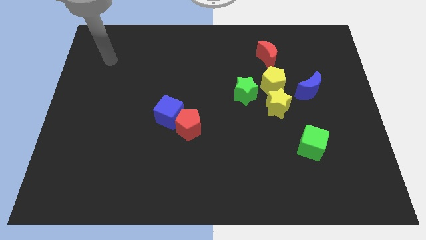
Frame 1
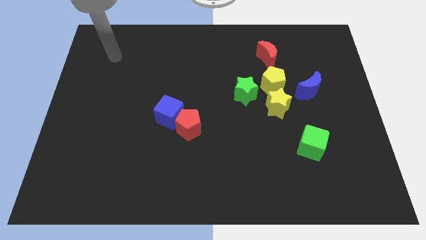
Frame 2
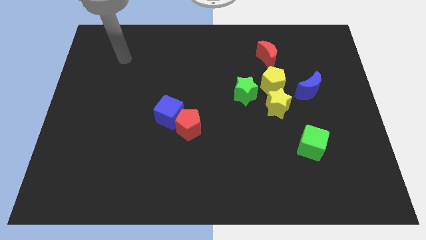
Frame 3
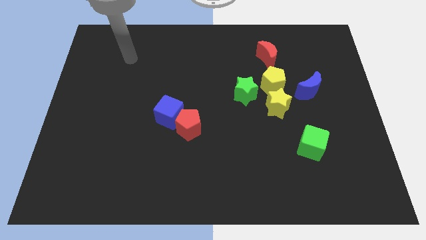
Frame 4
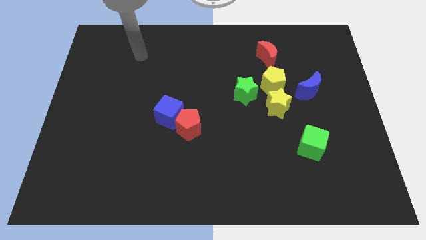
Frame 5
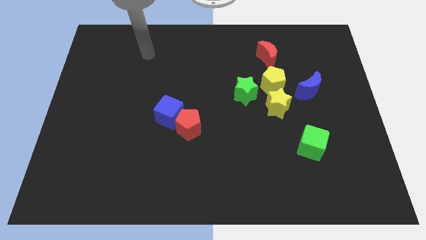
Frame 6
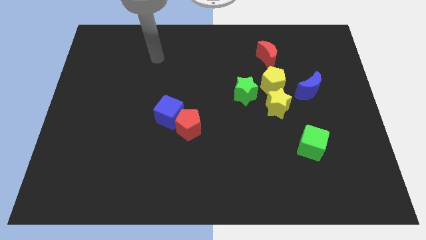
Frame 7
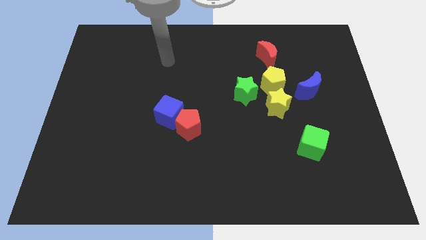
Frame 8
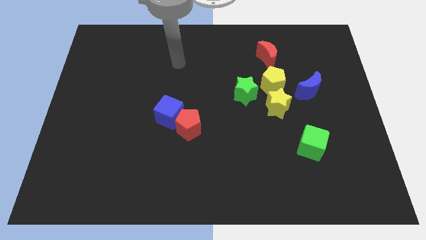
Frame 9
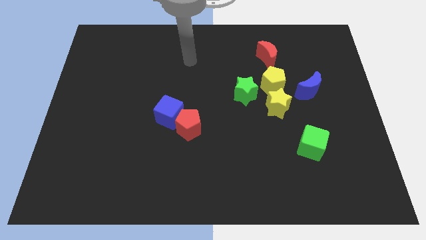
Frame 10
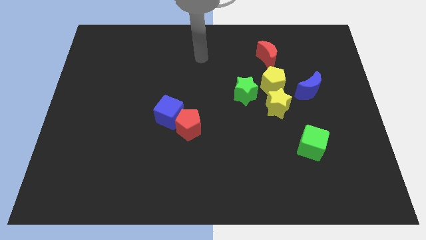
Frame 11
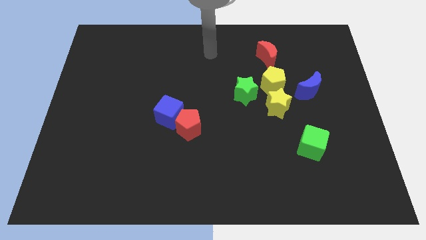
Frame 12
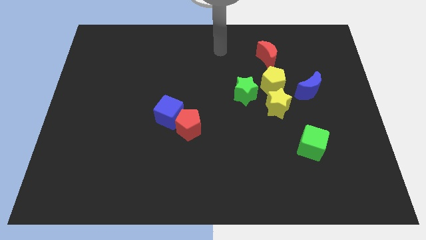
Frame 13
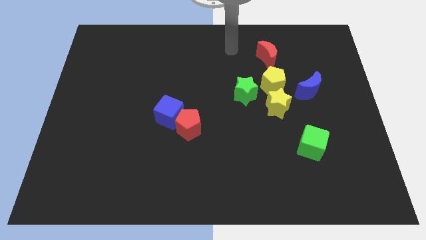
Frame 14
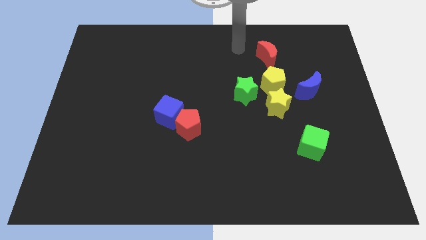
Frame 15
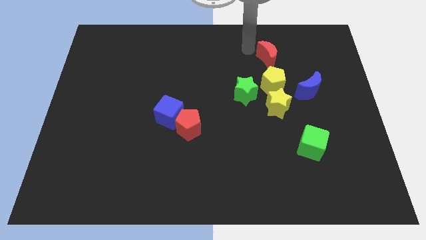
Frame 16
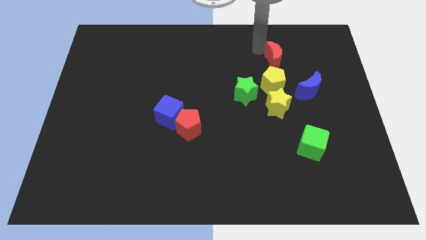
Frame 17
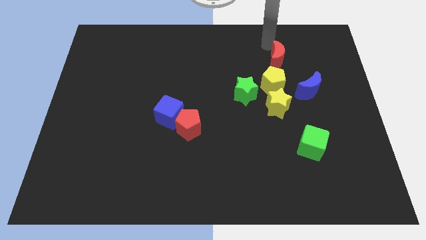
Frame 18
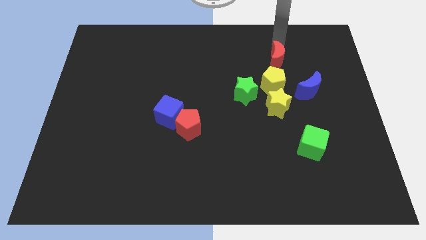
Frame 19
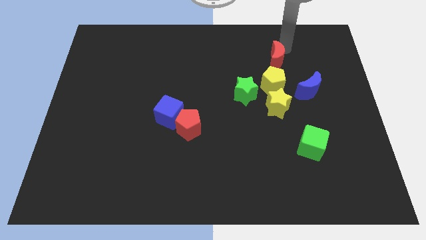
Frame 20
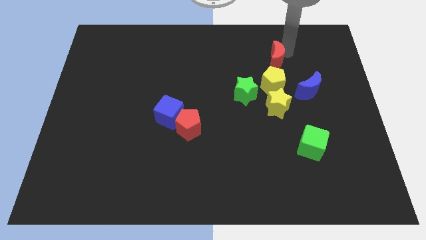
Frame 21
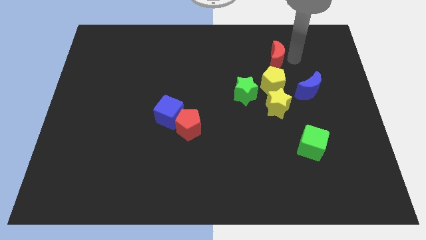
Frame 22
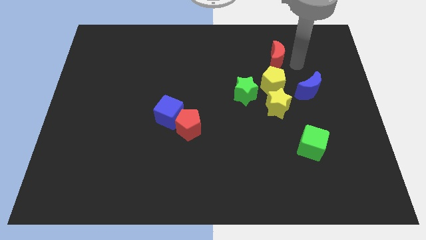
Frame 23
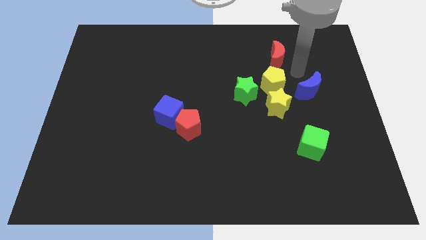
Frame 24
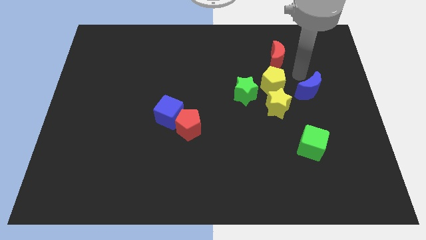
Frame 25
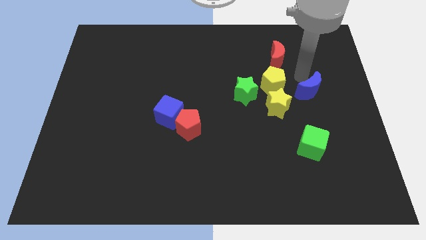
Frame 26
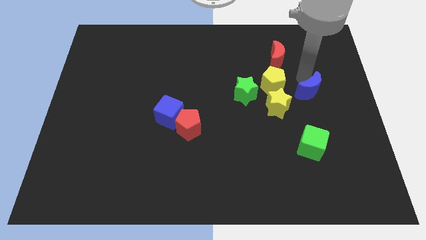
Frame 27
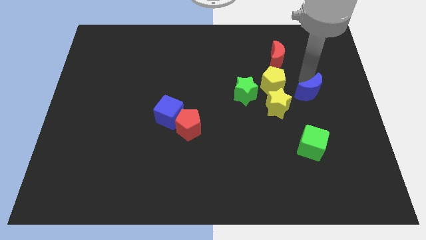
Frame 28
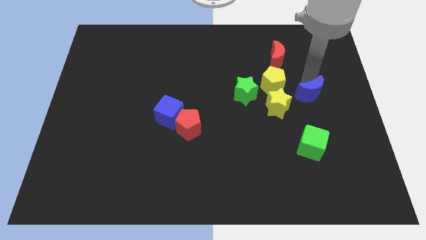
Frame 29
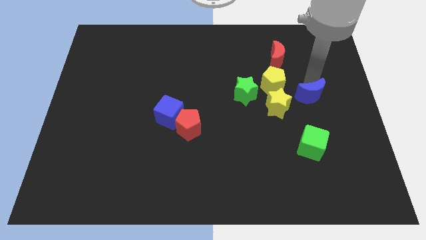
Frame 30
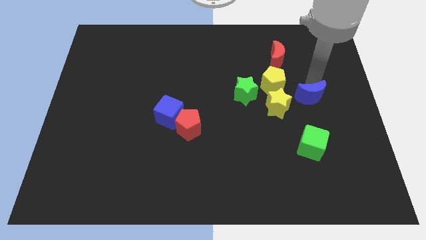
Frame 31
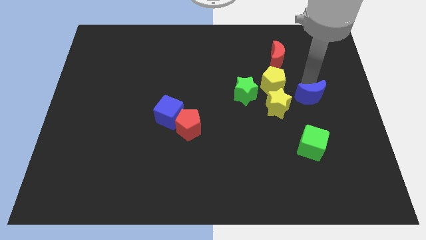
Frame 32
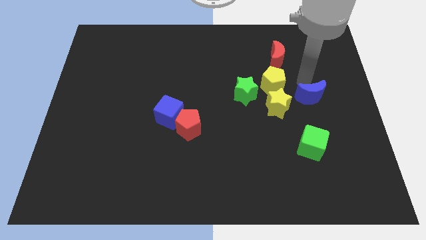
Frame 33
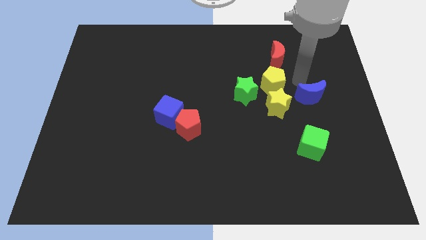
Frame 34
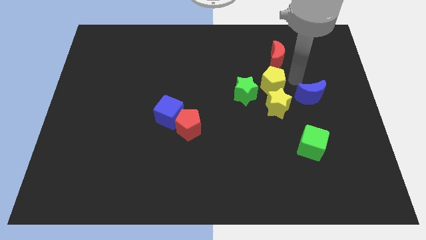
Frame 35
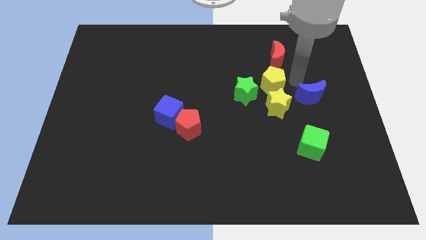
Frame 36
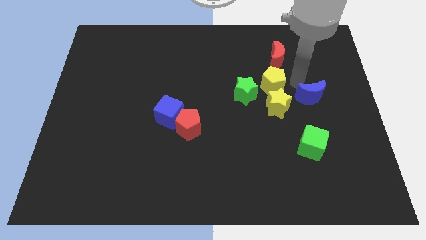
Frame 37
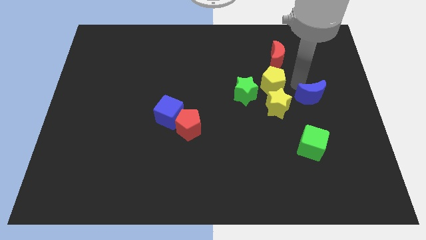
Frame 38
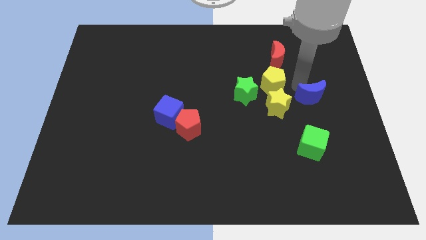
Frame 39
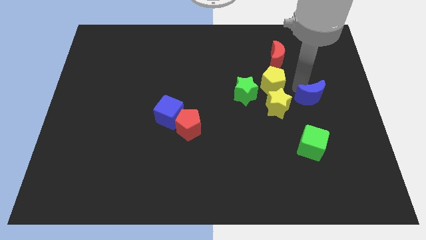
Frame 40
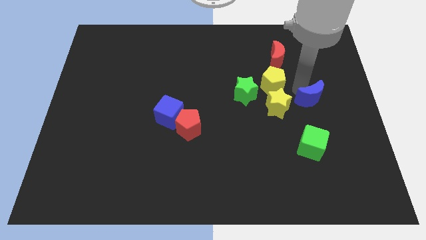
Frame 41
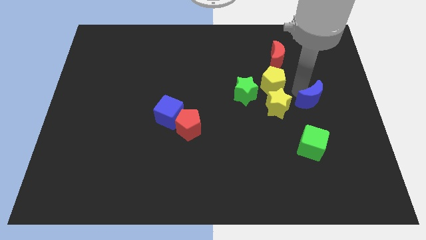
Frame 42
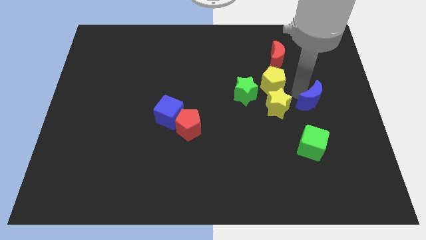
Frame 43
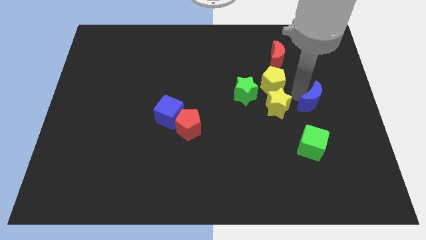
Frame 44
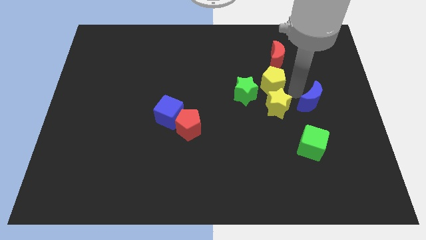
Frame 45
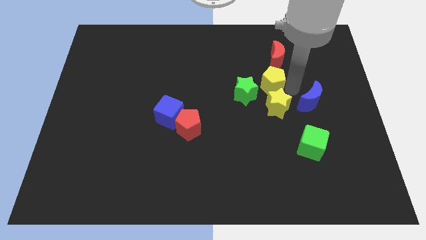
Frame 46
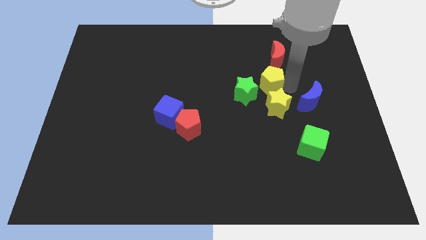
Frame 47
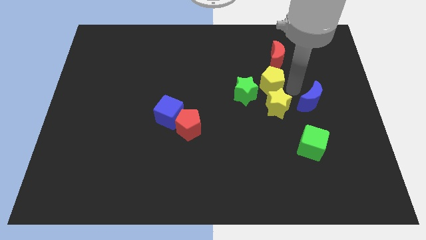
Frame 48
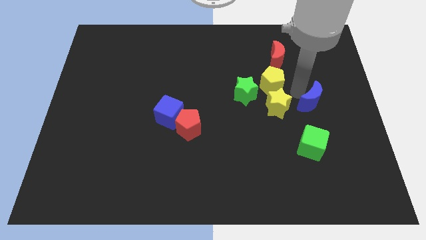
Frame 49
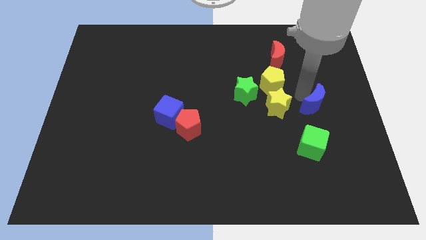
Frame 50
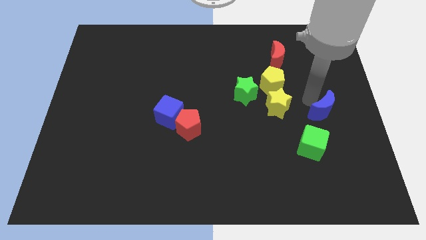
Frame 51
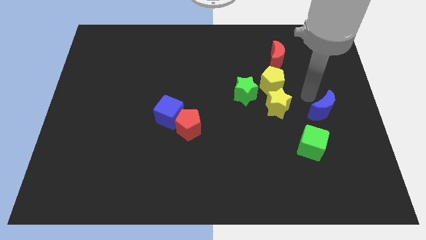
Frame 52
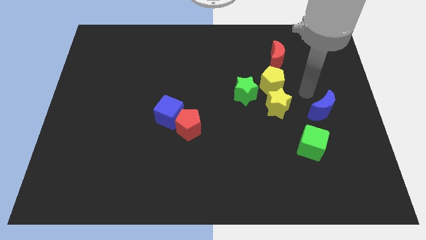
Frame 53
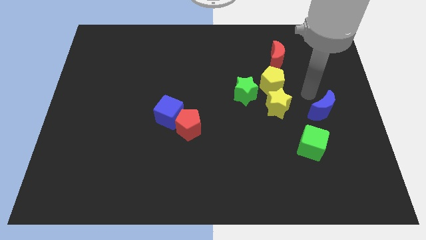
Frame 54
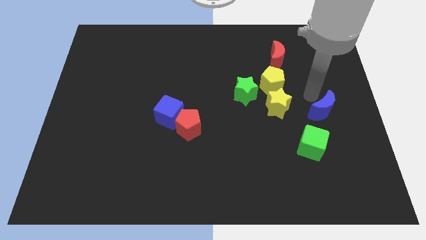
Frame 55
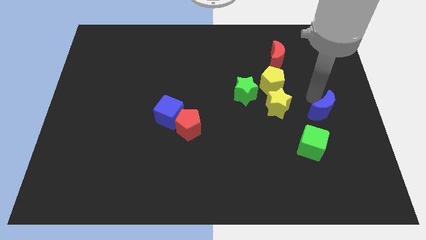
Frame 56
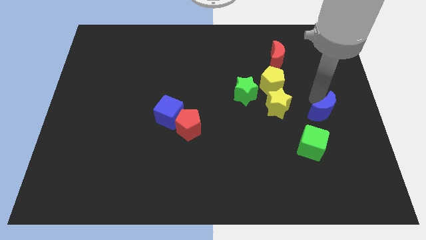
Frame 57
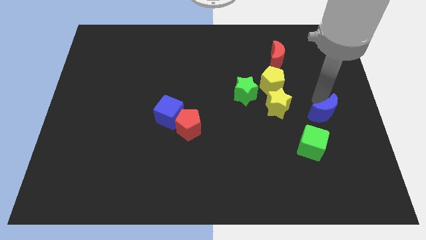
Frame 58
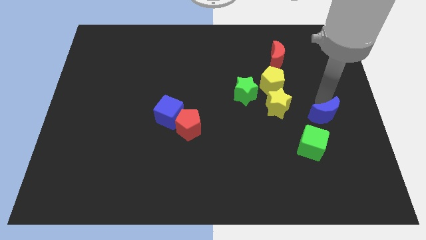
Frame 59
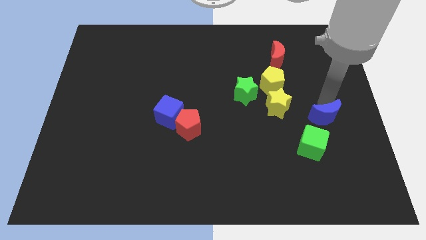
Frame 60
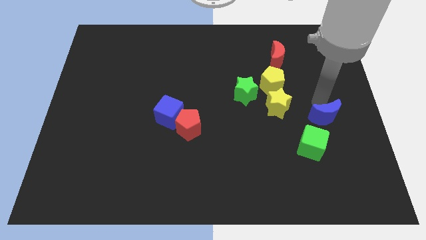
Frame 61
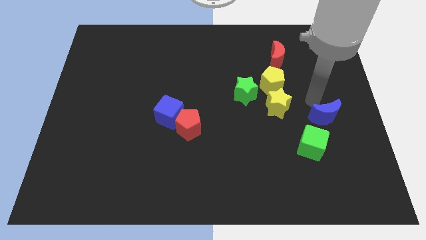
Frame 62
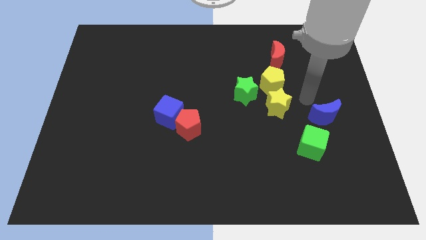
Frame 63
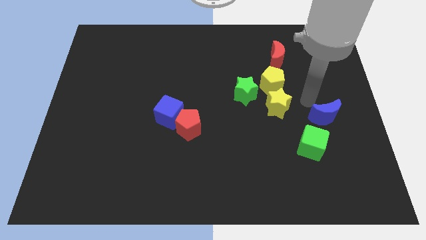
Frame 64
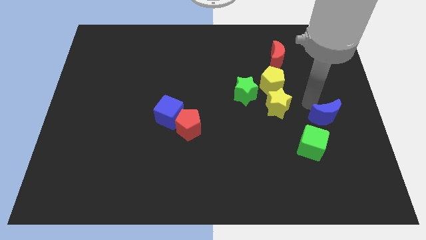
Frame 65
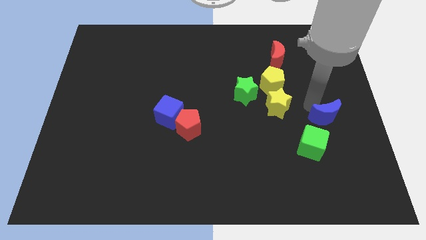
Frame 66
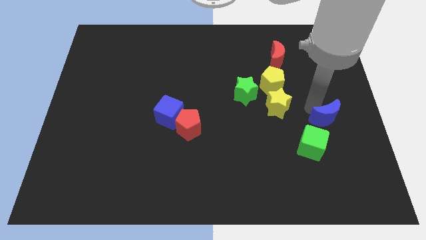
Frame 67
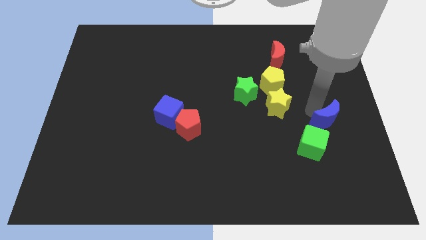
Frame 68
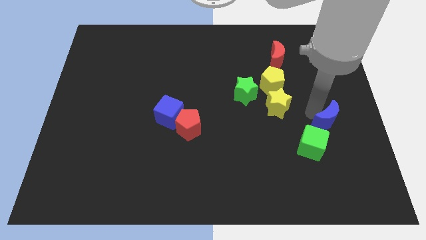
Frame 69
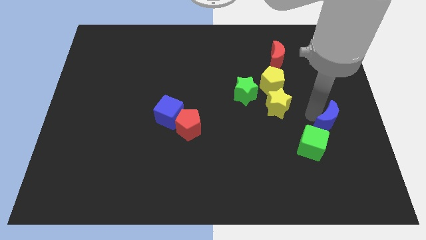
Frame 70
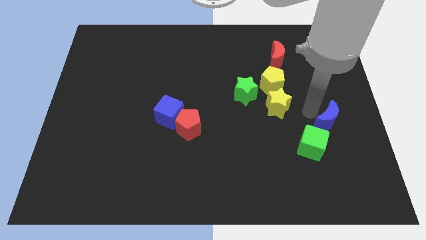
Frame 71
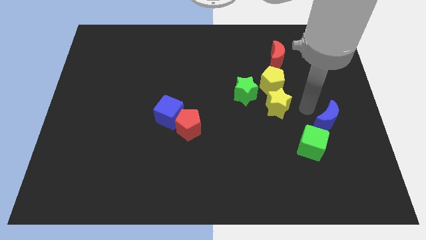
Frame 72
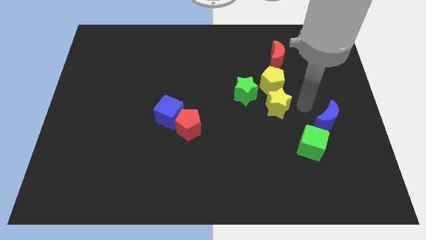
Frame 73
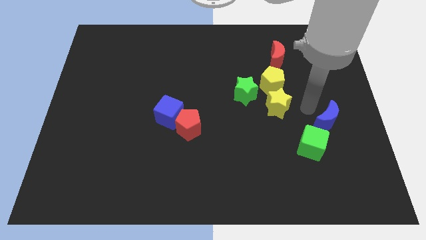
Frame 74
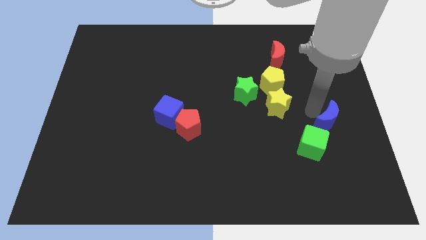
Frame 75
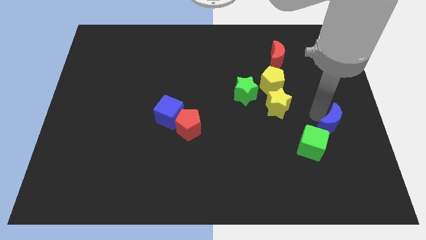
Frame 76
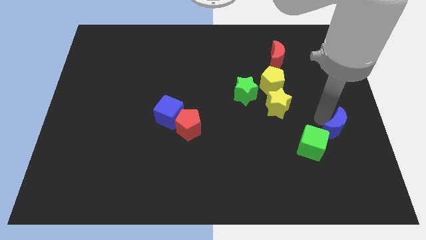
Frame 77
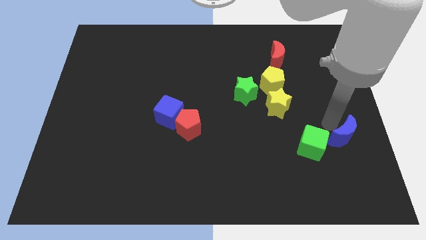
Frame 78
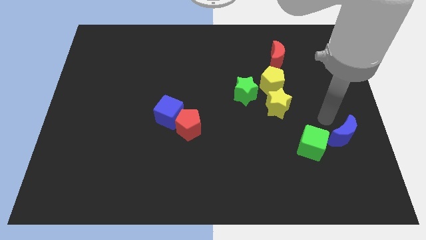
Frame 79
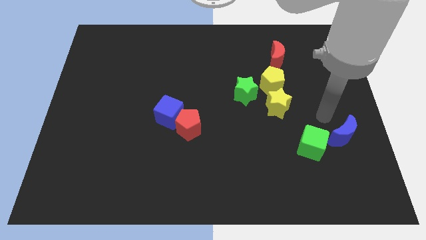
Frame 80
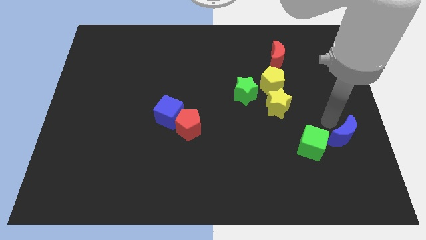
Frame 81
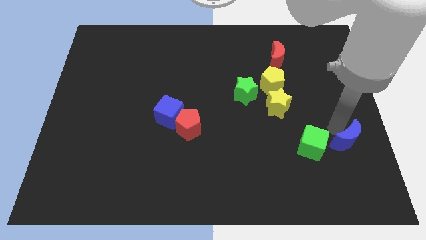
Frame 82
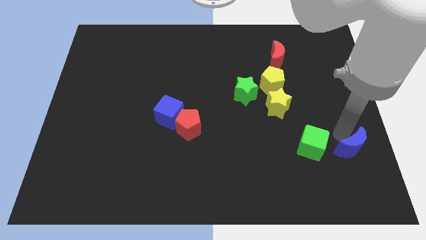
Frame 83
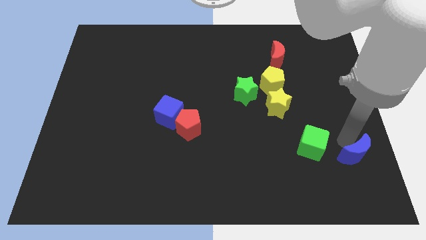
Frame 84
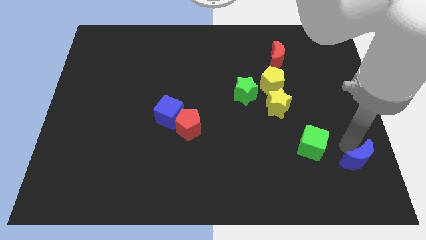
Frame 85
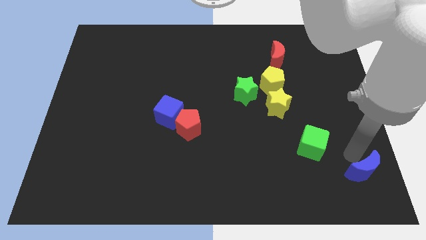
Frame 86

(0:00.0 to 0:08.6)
put the blue moon to the bottom right
